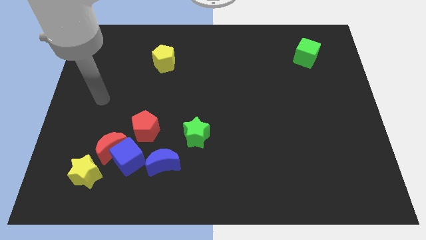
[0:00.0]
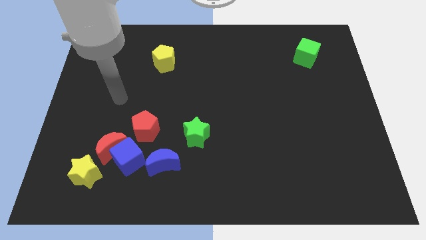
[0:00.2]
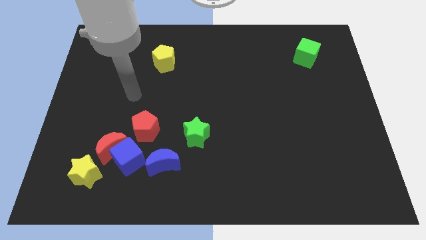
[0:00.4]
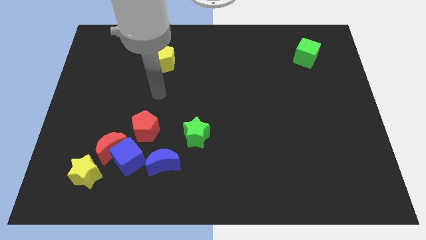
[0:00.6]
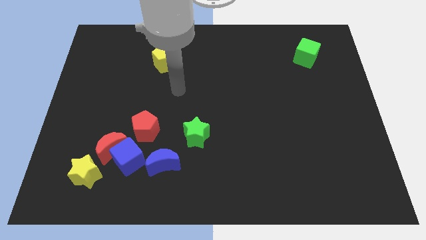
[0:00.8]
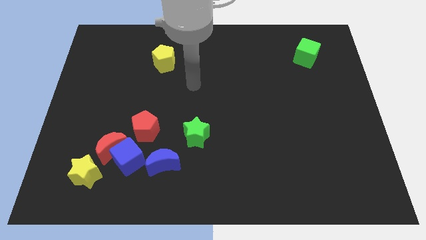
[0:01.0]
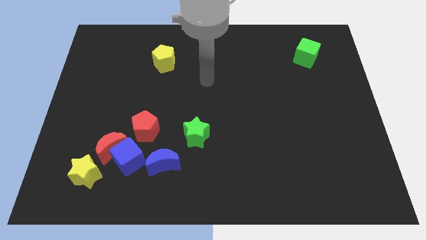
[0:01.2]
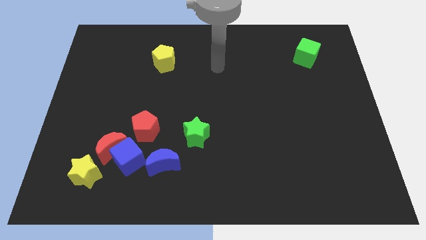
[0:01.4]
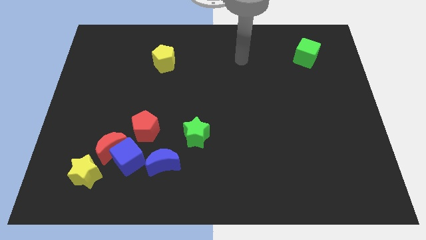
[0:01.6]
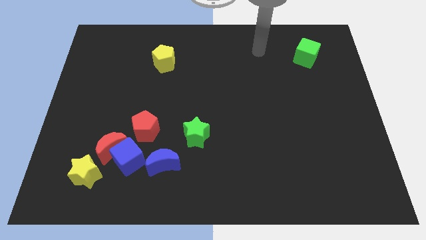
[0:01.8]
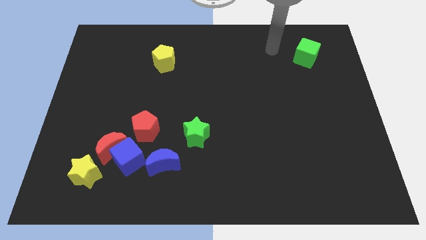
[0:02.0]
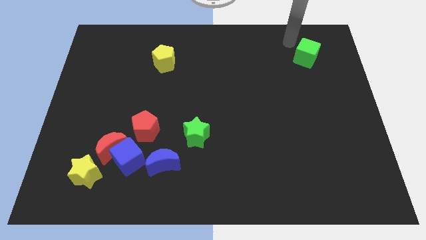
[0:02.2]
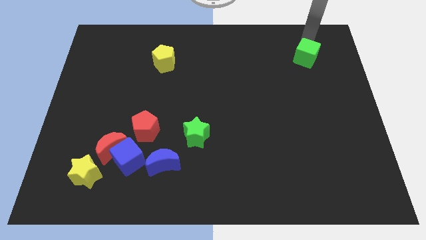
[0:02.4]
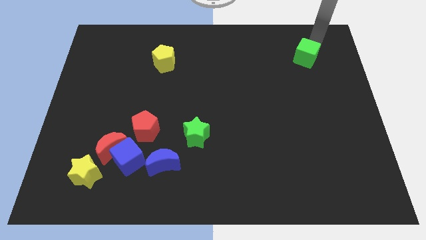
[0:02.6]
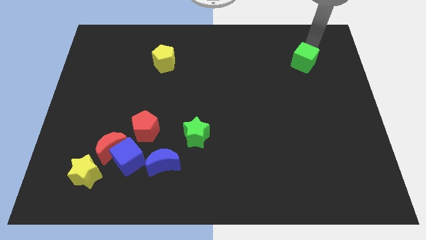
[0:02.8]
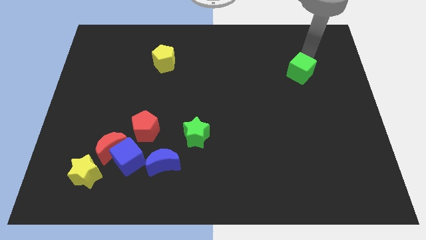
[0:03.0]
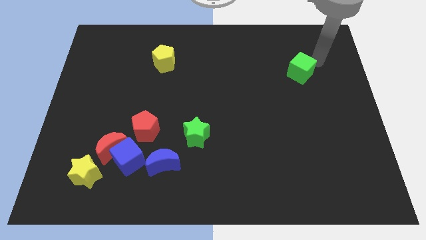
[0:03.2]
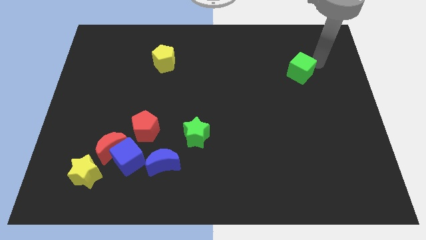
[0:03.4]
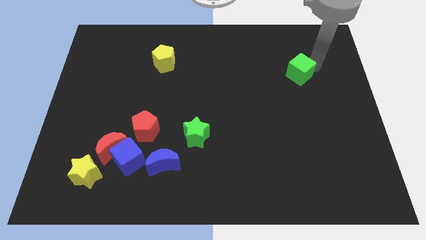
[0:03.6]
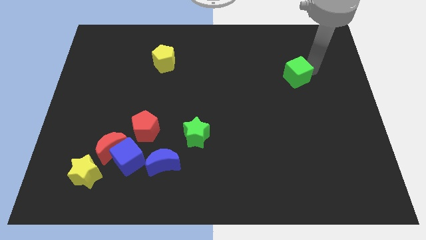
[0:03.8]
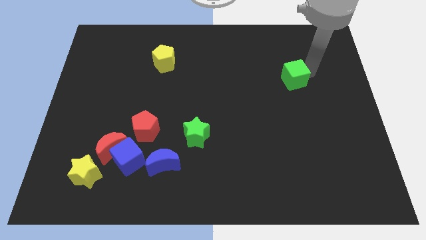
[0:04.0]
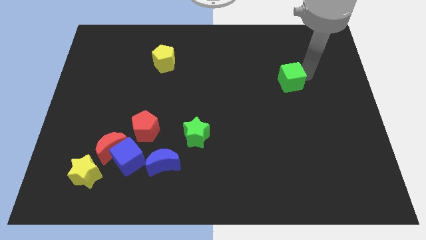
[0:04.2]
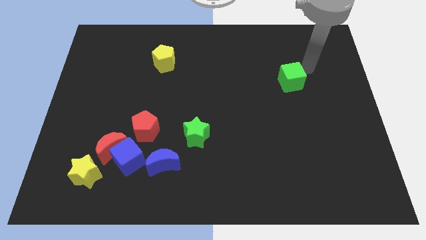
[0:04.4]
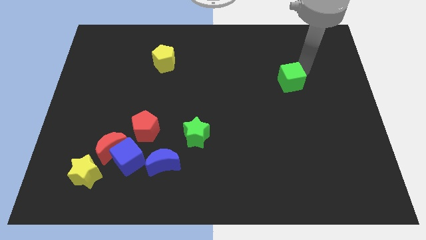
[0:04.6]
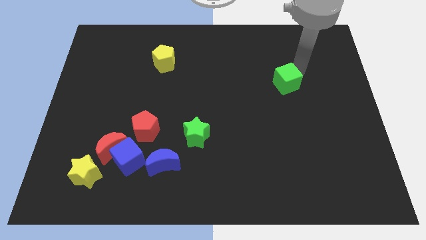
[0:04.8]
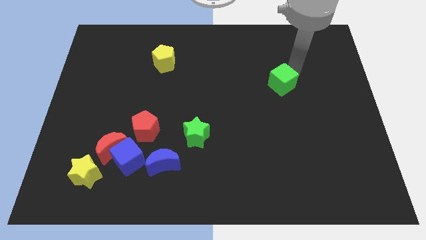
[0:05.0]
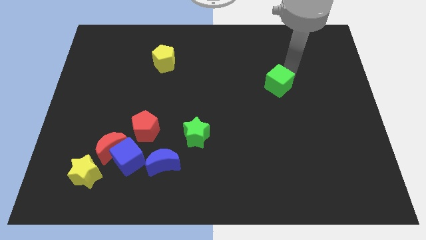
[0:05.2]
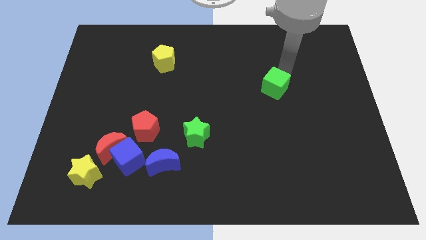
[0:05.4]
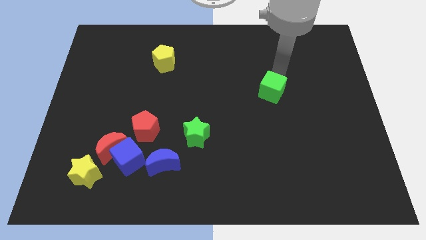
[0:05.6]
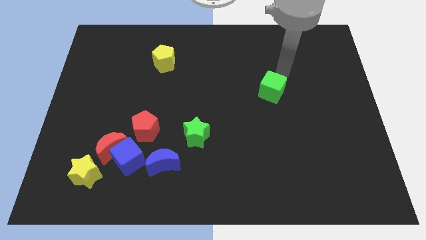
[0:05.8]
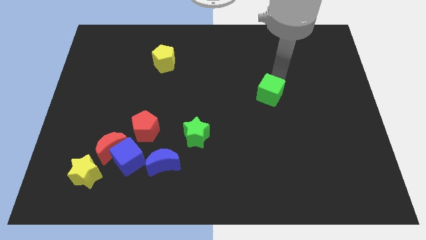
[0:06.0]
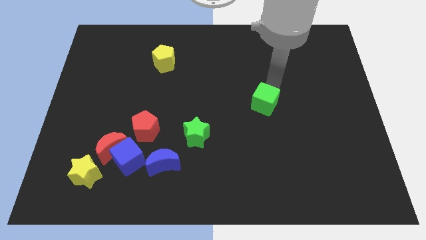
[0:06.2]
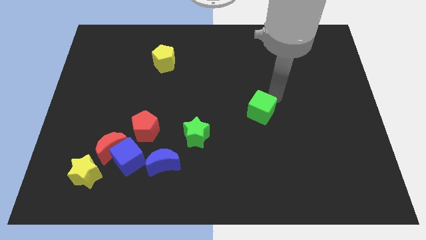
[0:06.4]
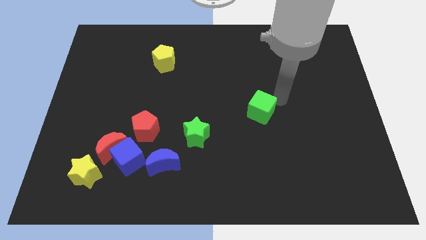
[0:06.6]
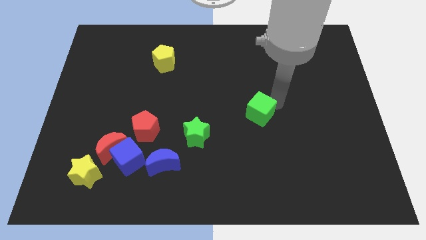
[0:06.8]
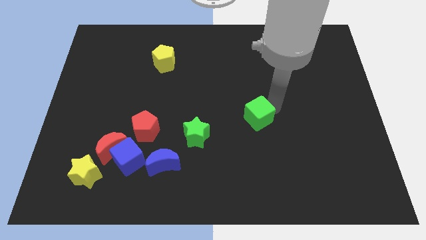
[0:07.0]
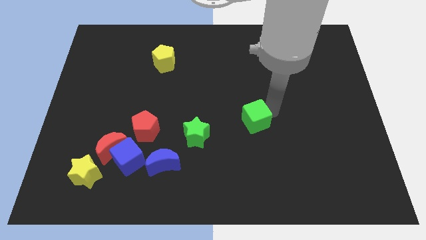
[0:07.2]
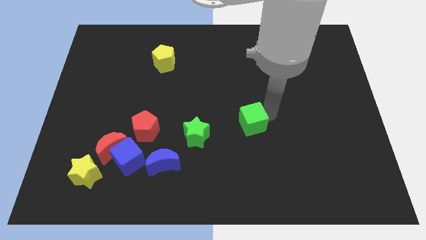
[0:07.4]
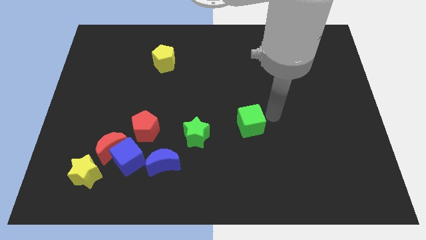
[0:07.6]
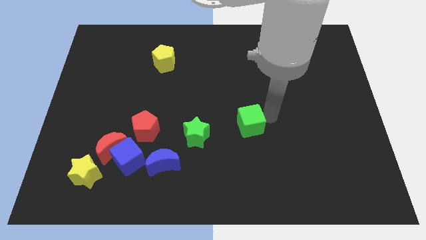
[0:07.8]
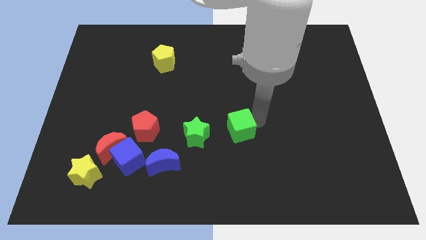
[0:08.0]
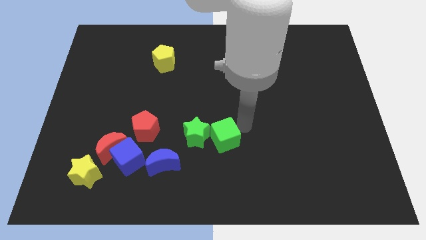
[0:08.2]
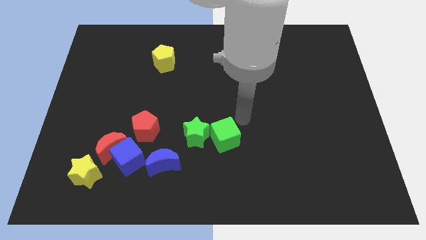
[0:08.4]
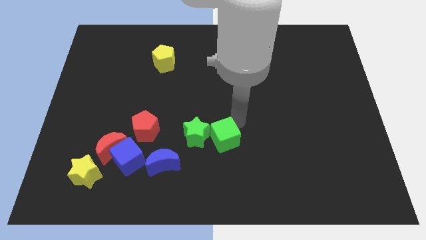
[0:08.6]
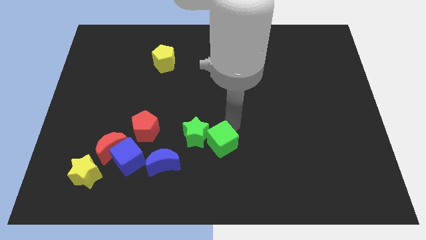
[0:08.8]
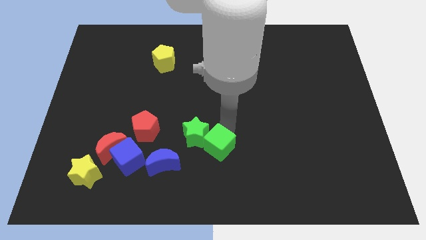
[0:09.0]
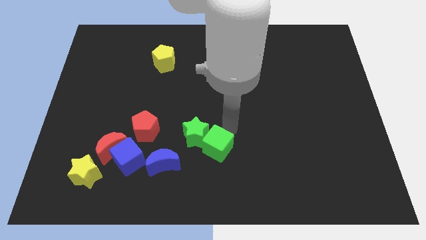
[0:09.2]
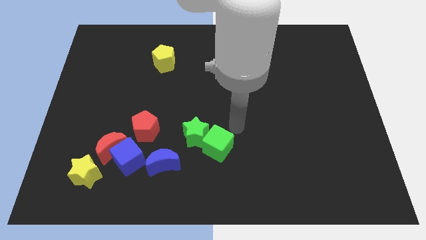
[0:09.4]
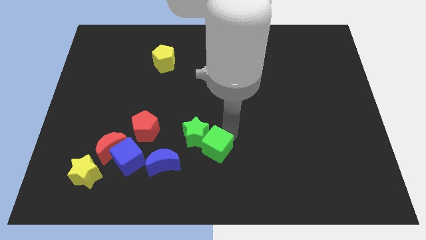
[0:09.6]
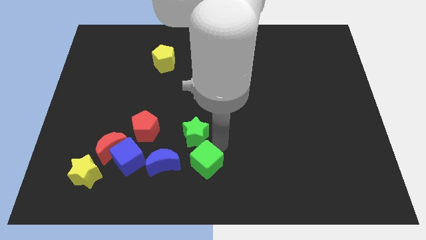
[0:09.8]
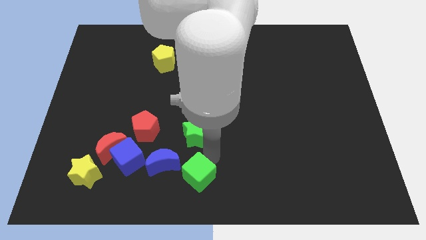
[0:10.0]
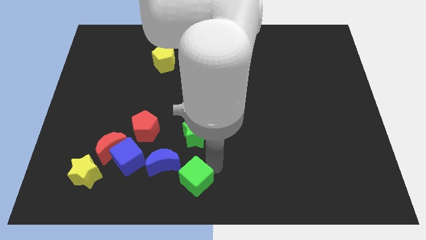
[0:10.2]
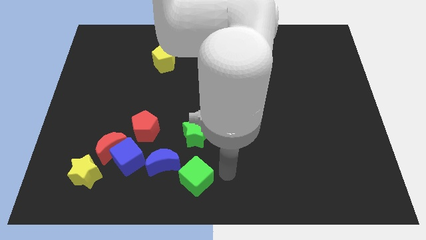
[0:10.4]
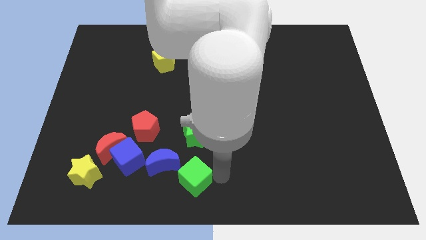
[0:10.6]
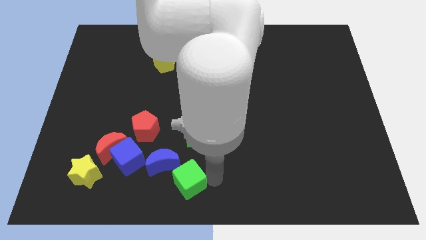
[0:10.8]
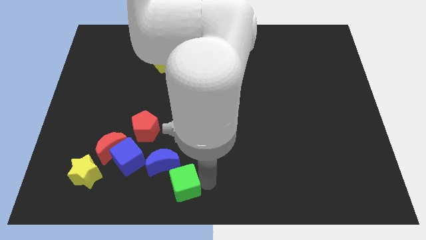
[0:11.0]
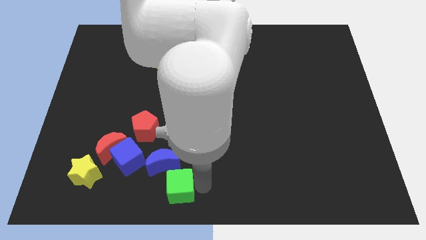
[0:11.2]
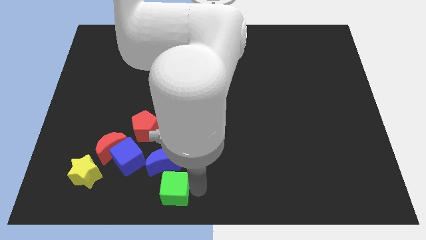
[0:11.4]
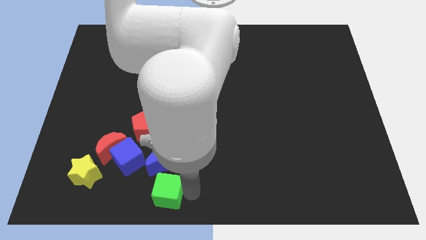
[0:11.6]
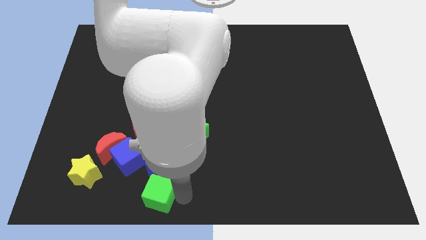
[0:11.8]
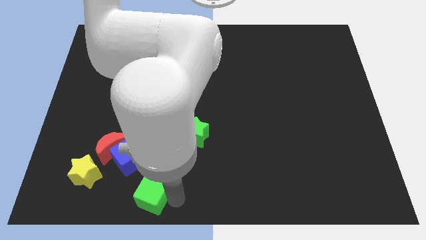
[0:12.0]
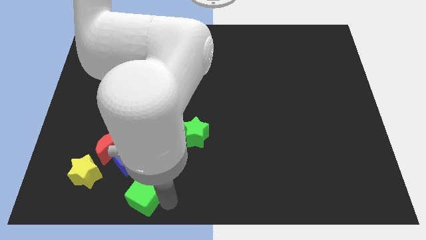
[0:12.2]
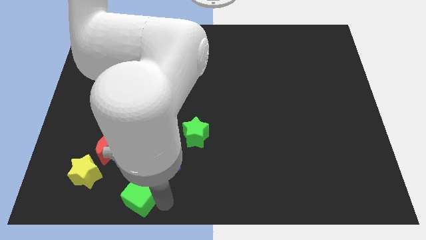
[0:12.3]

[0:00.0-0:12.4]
put the green cube to the bottom of the red pentagon

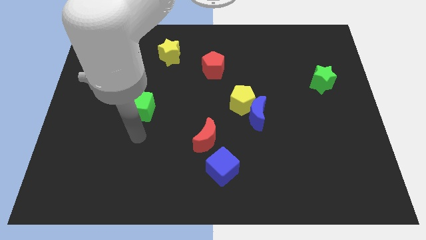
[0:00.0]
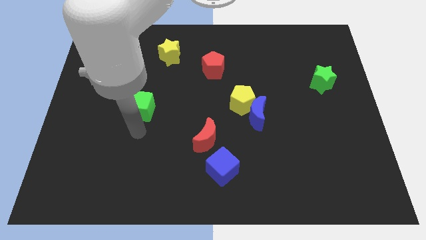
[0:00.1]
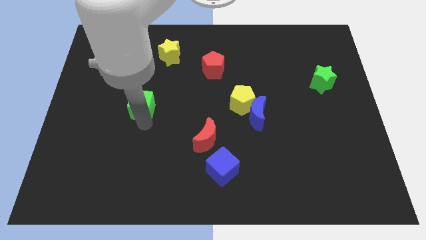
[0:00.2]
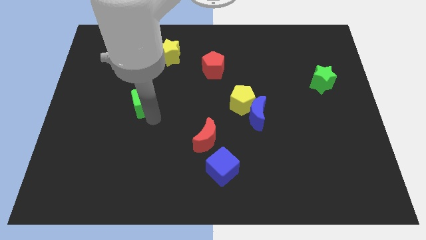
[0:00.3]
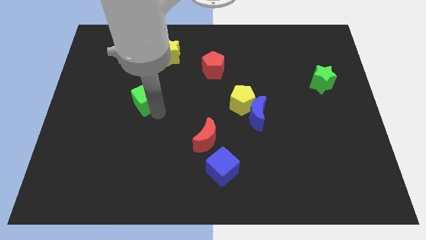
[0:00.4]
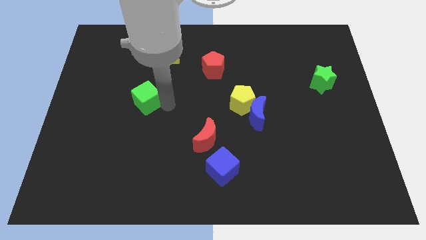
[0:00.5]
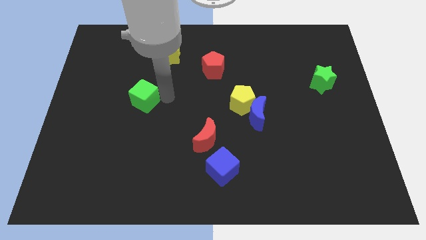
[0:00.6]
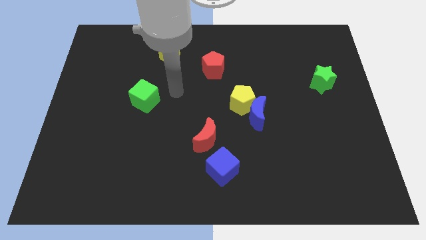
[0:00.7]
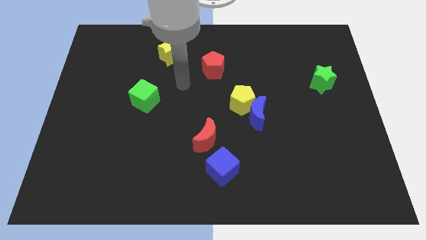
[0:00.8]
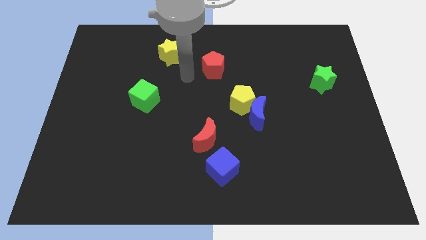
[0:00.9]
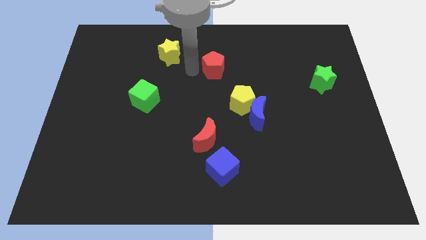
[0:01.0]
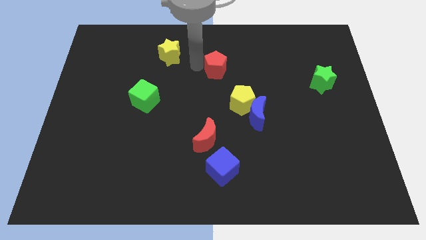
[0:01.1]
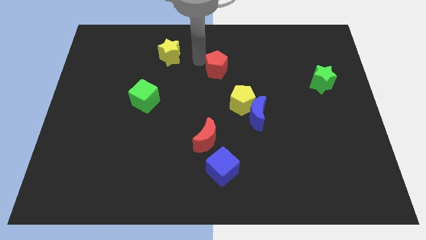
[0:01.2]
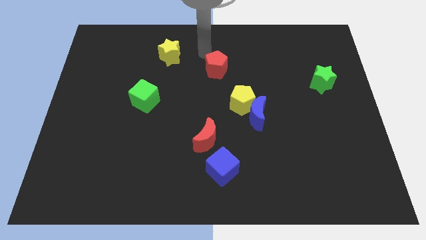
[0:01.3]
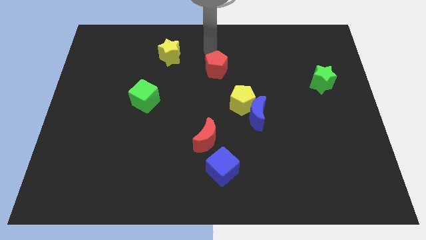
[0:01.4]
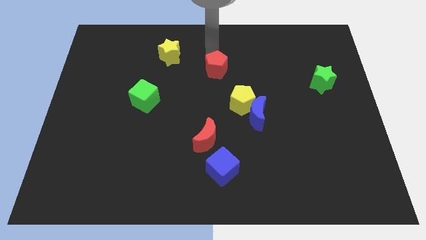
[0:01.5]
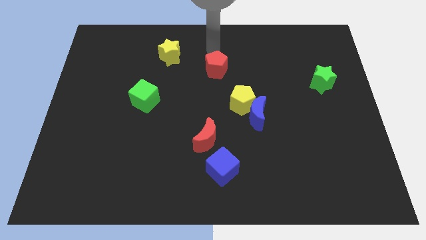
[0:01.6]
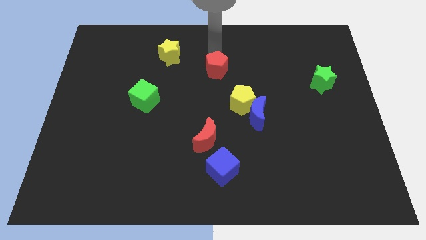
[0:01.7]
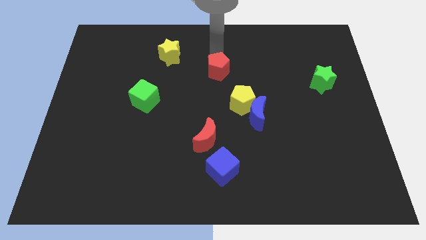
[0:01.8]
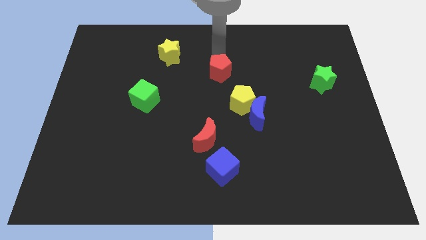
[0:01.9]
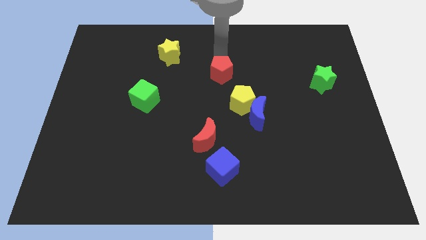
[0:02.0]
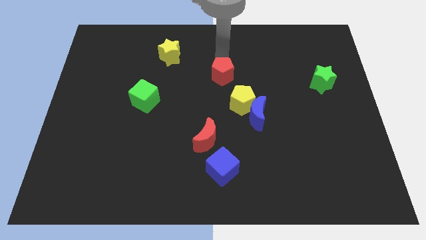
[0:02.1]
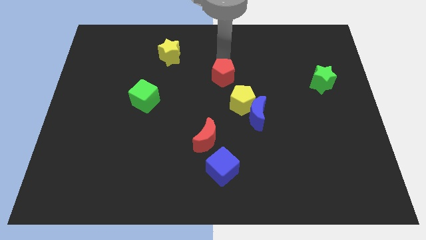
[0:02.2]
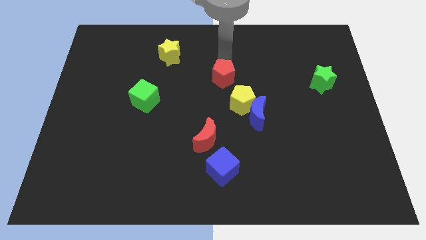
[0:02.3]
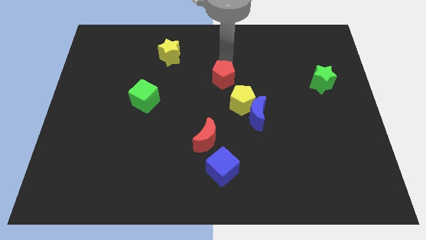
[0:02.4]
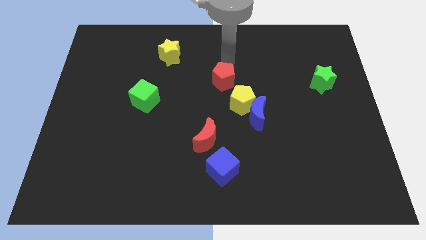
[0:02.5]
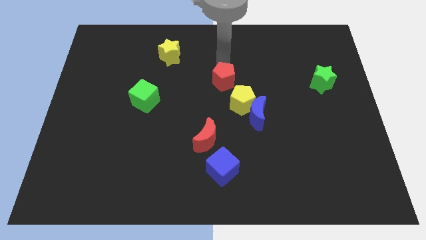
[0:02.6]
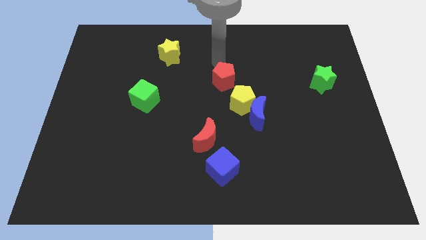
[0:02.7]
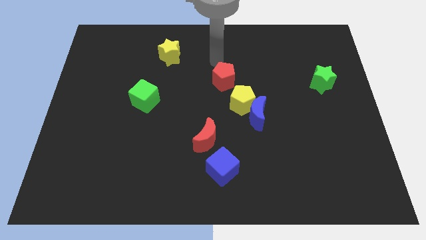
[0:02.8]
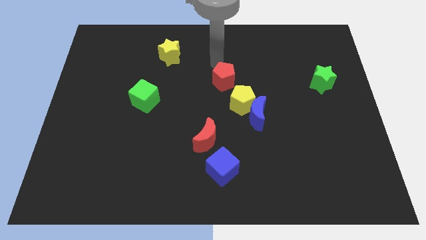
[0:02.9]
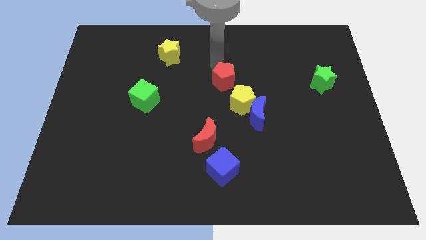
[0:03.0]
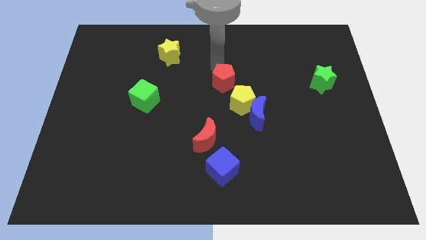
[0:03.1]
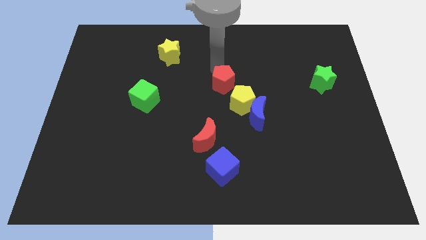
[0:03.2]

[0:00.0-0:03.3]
put the red pentagon to the top left of the blue moon
